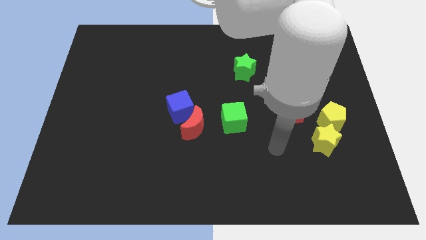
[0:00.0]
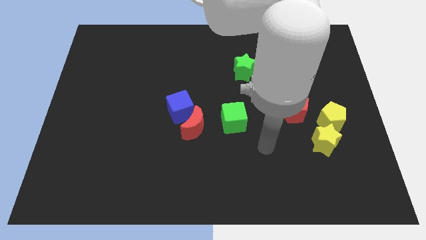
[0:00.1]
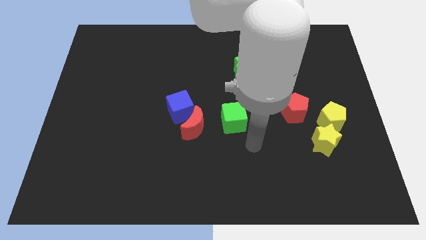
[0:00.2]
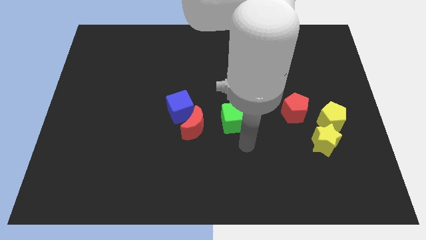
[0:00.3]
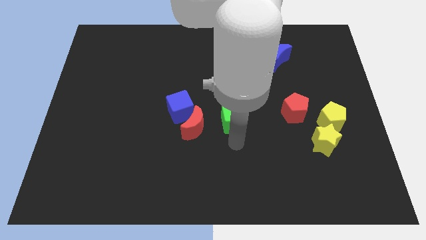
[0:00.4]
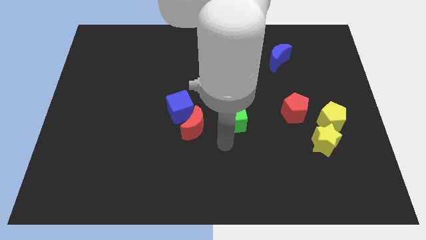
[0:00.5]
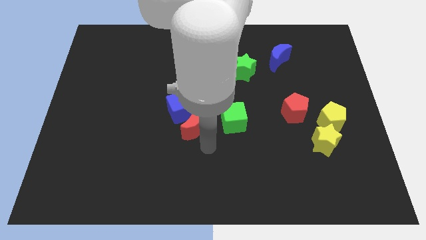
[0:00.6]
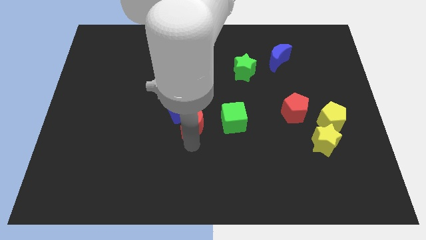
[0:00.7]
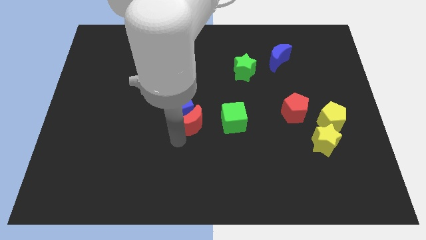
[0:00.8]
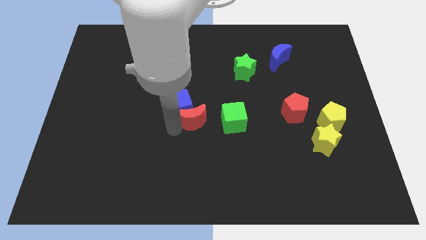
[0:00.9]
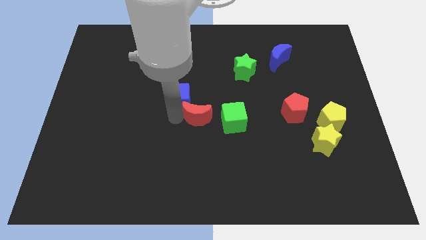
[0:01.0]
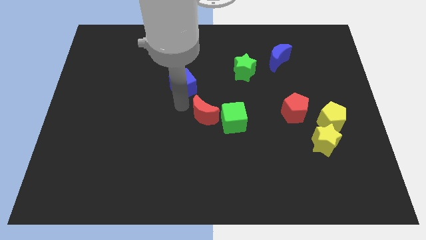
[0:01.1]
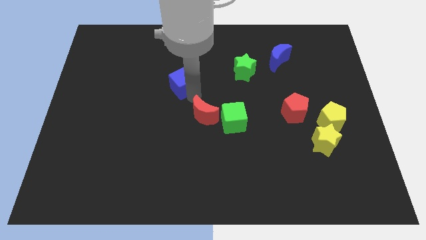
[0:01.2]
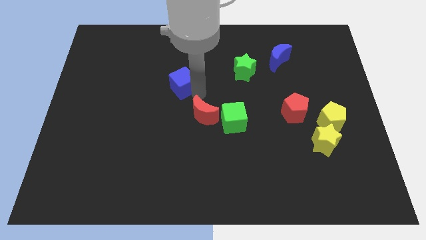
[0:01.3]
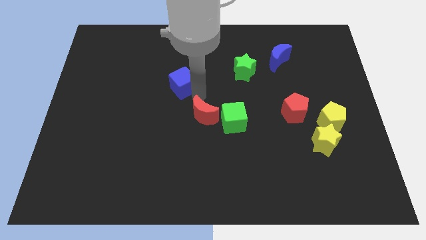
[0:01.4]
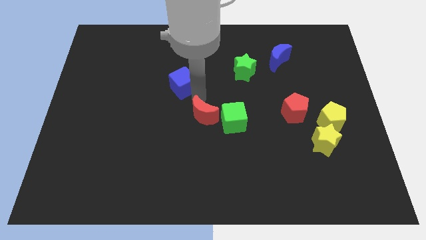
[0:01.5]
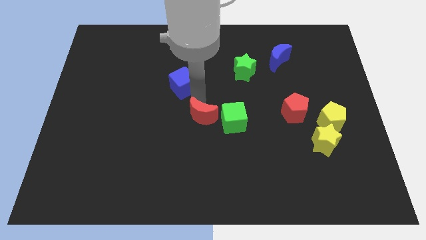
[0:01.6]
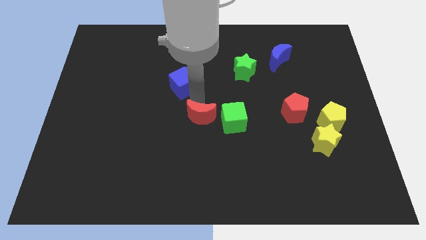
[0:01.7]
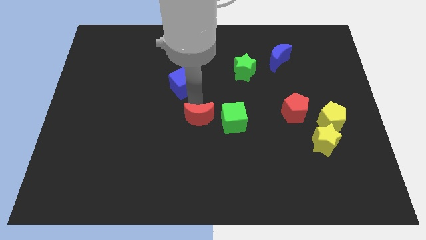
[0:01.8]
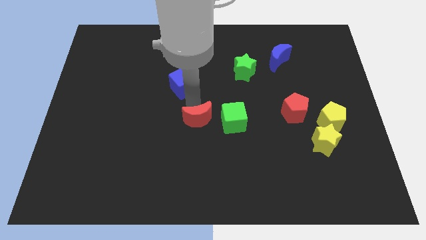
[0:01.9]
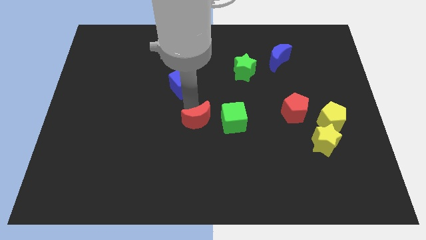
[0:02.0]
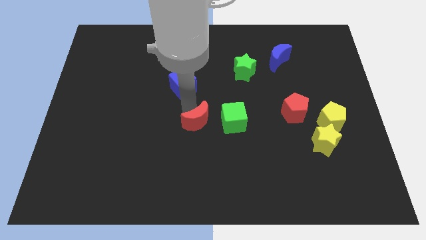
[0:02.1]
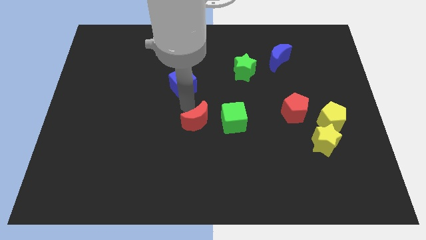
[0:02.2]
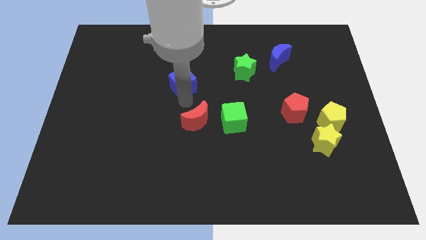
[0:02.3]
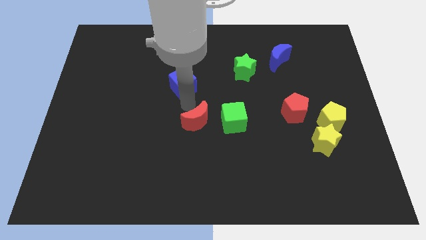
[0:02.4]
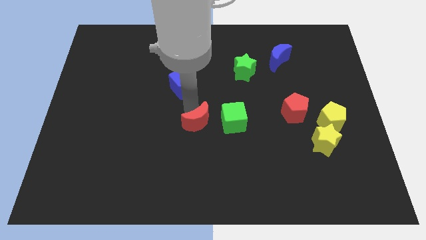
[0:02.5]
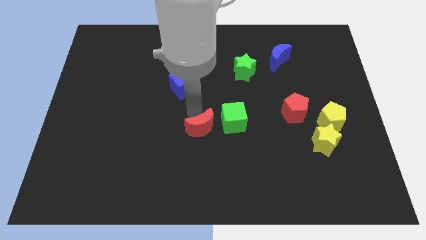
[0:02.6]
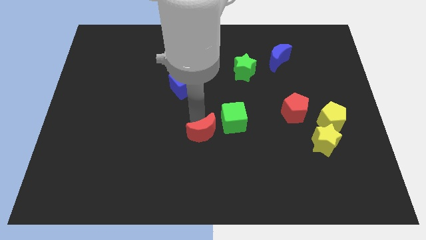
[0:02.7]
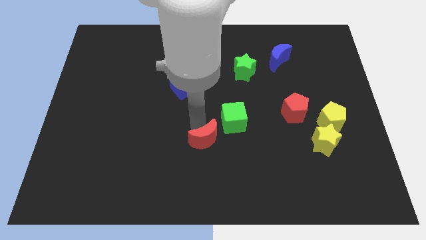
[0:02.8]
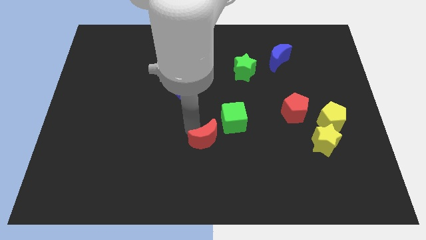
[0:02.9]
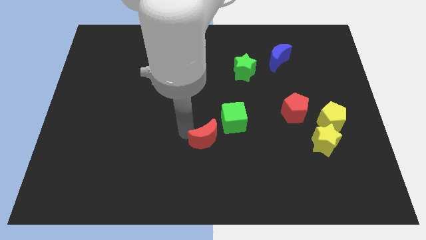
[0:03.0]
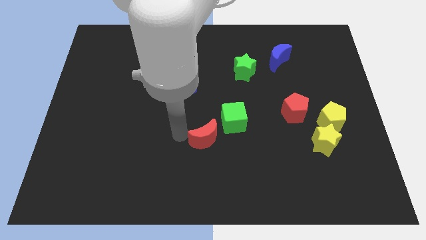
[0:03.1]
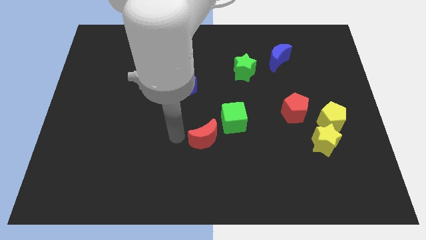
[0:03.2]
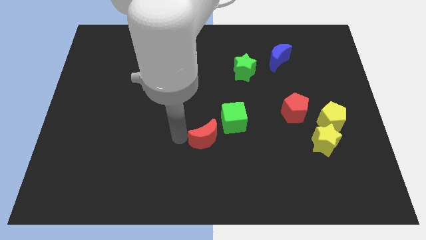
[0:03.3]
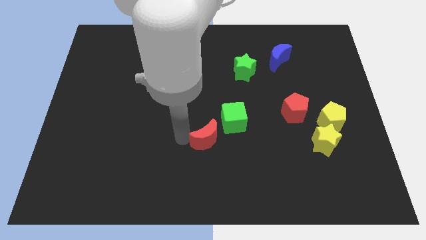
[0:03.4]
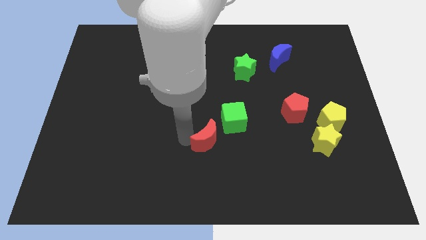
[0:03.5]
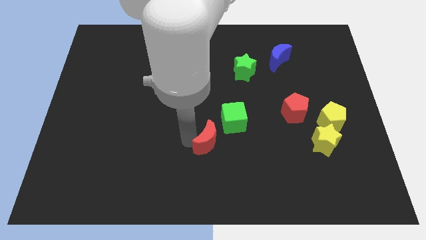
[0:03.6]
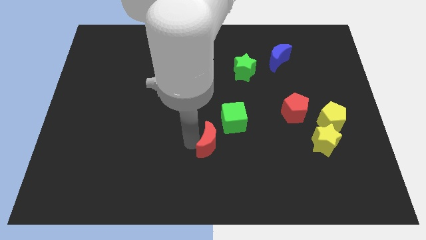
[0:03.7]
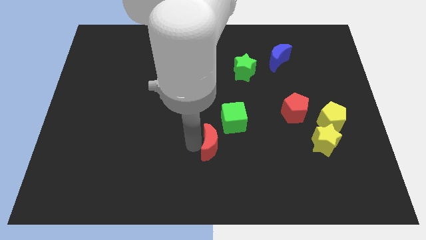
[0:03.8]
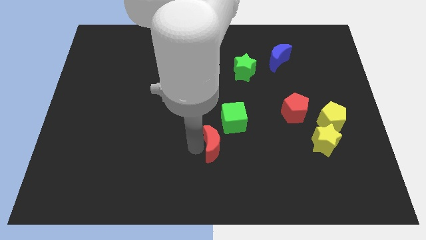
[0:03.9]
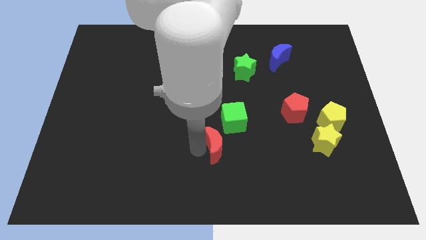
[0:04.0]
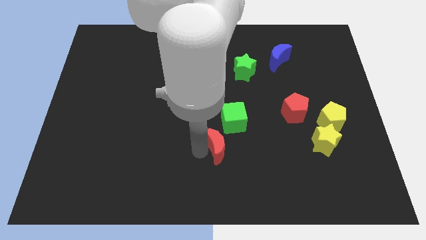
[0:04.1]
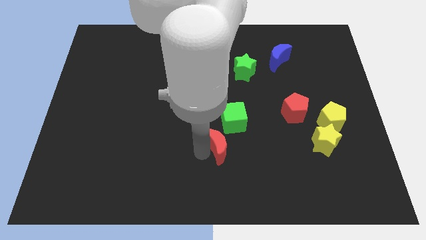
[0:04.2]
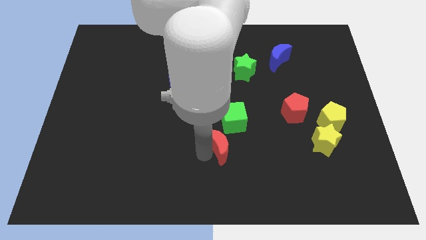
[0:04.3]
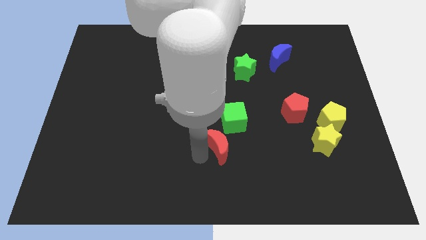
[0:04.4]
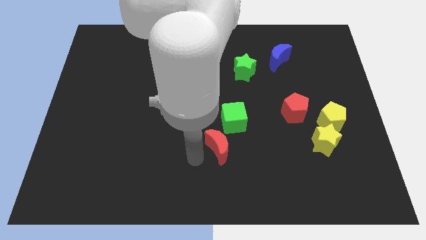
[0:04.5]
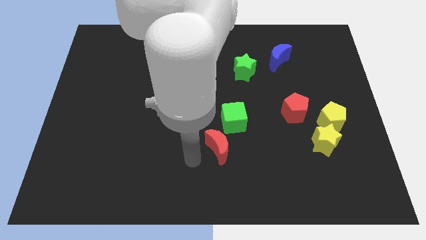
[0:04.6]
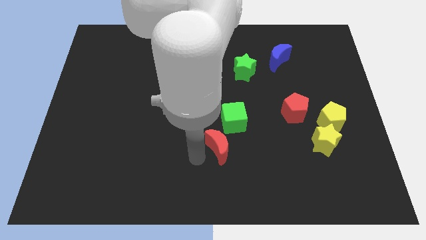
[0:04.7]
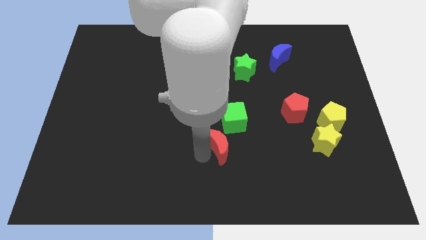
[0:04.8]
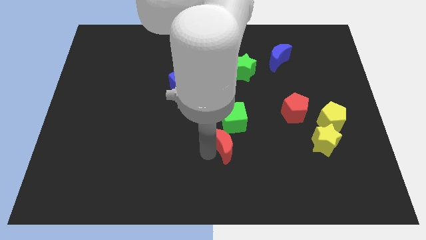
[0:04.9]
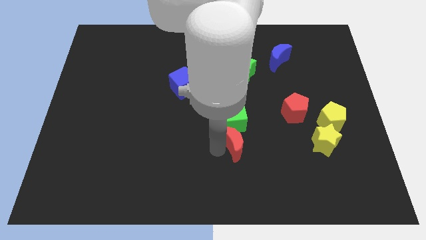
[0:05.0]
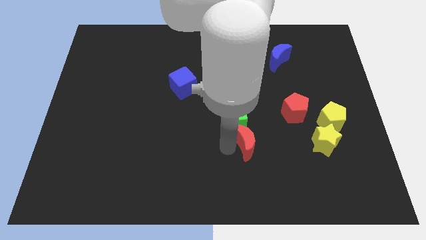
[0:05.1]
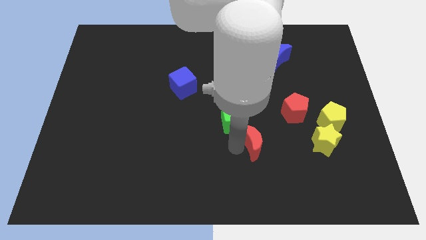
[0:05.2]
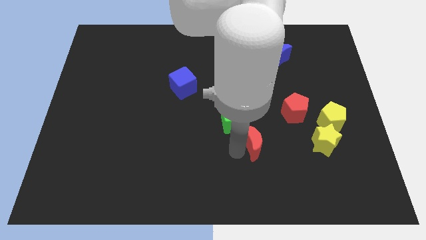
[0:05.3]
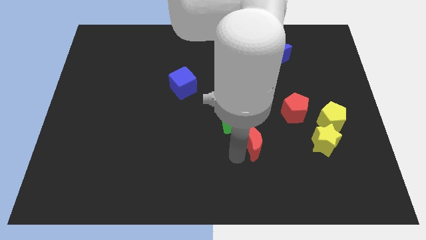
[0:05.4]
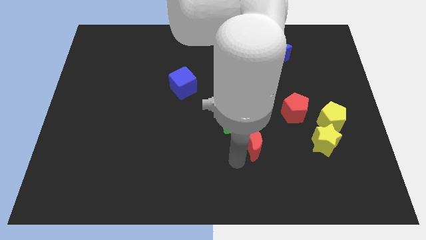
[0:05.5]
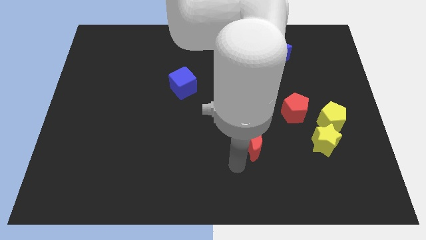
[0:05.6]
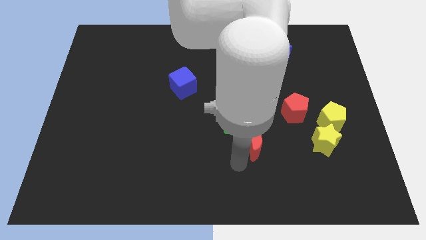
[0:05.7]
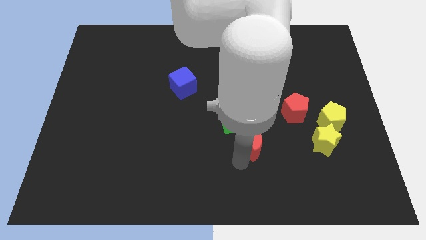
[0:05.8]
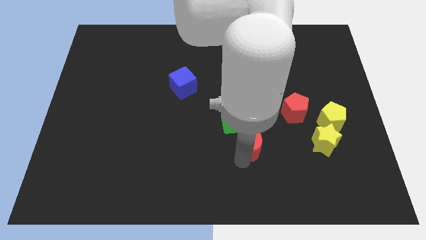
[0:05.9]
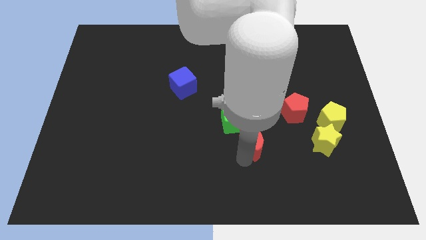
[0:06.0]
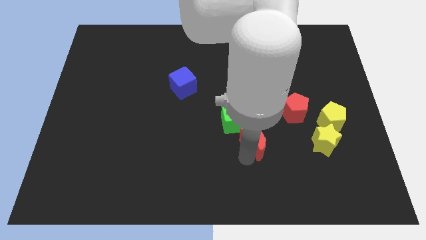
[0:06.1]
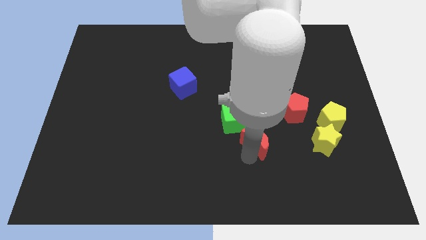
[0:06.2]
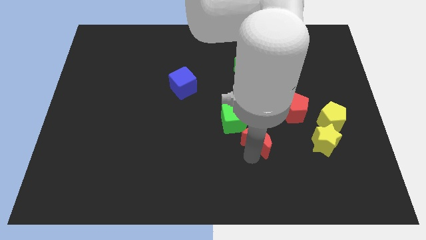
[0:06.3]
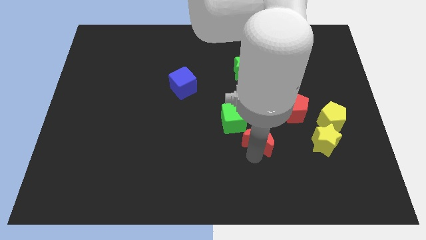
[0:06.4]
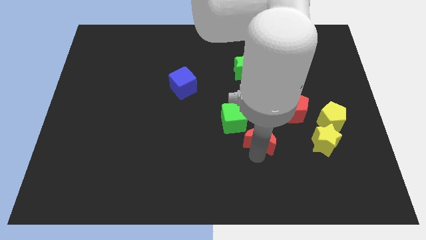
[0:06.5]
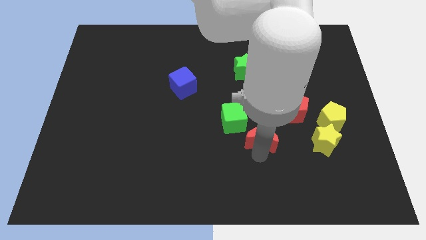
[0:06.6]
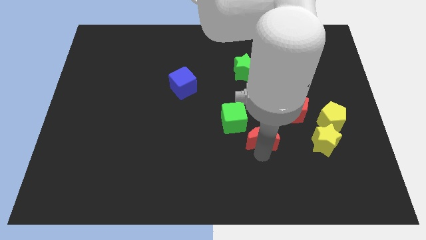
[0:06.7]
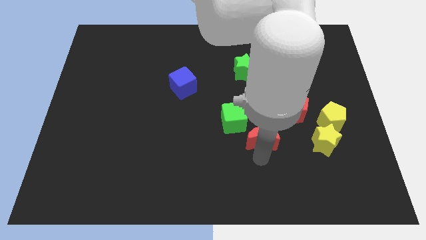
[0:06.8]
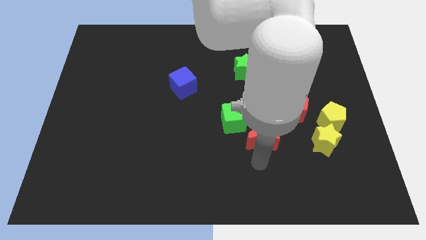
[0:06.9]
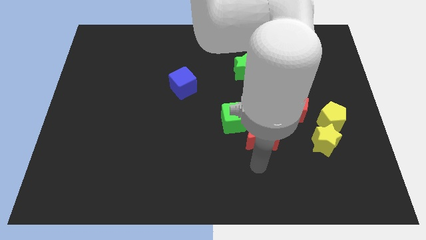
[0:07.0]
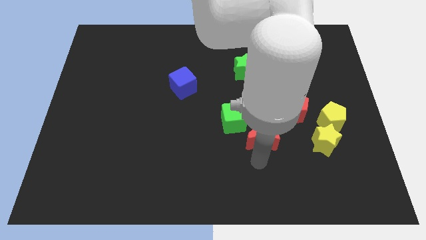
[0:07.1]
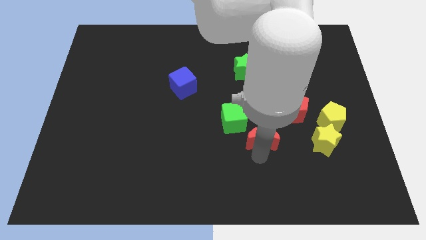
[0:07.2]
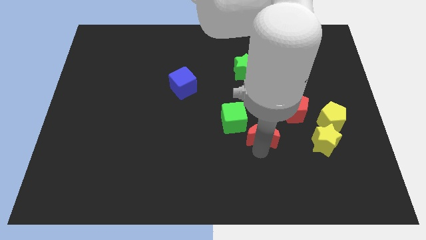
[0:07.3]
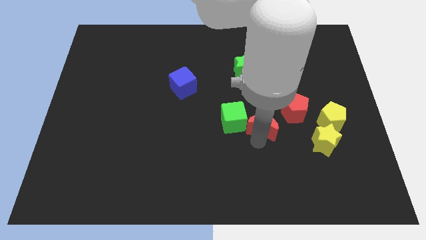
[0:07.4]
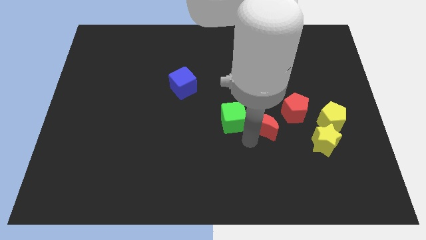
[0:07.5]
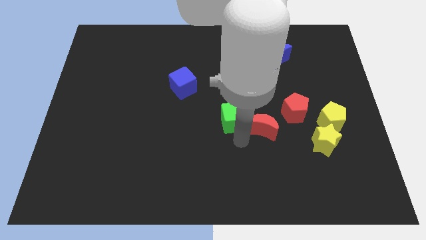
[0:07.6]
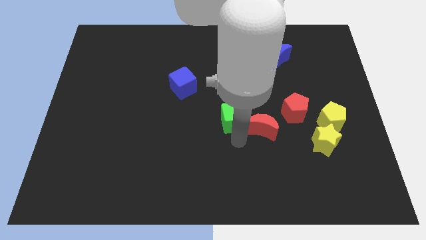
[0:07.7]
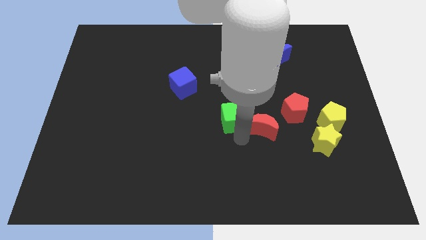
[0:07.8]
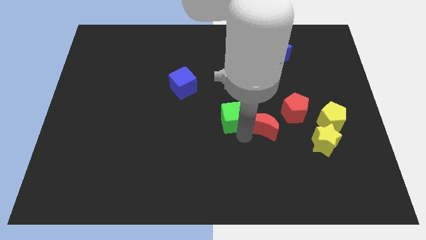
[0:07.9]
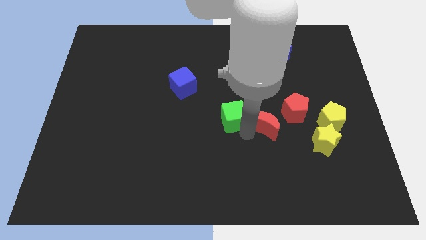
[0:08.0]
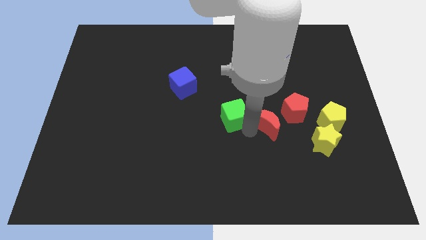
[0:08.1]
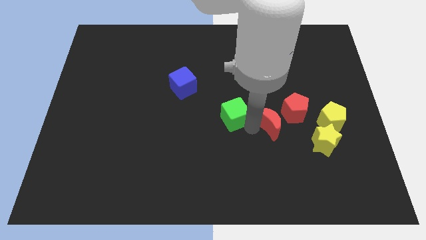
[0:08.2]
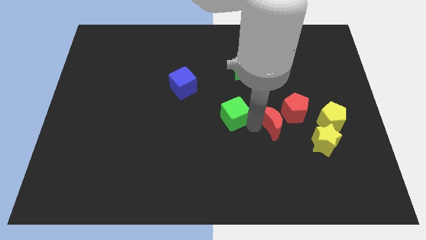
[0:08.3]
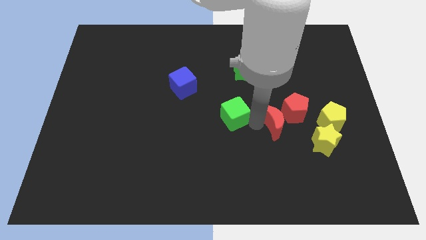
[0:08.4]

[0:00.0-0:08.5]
push the red moon next to the red pentagon
